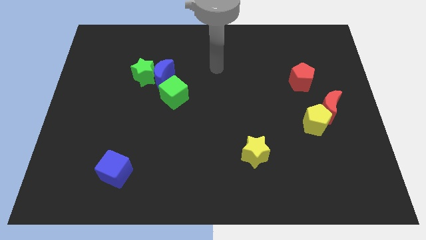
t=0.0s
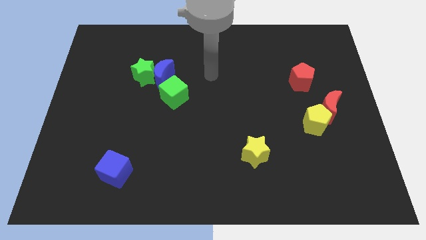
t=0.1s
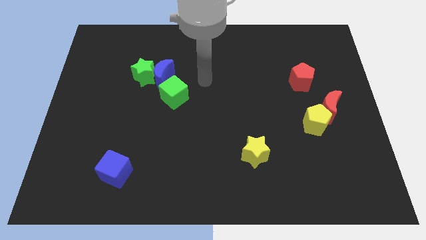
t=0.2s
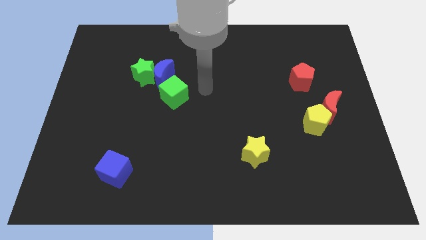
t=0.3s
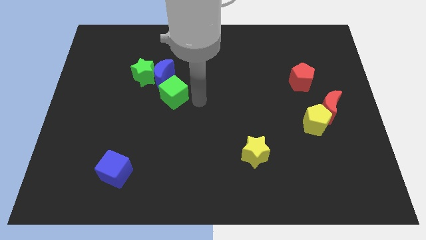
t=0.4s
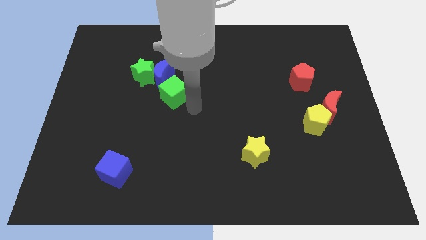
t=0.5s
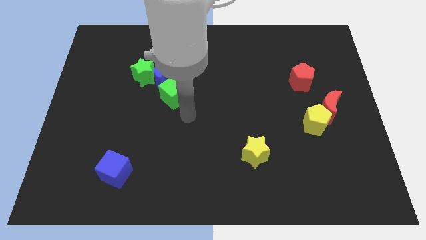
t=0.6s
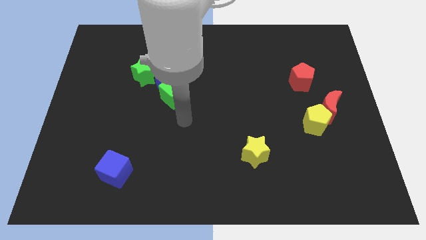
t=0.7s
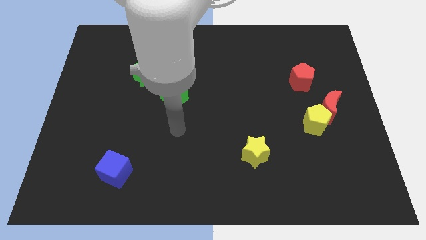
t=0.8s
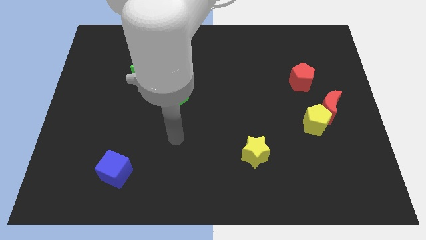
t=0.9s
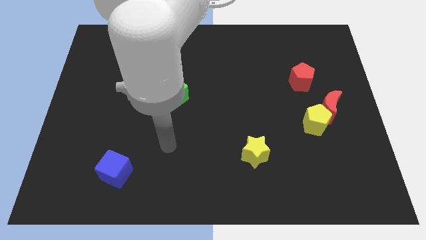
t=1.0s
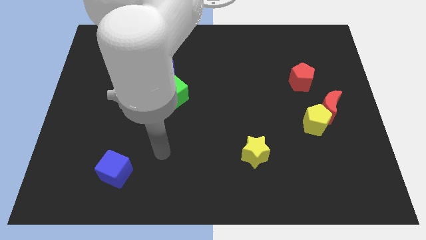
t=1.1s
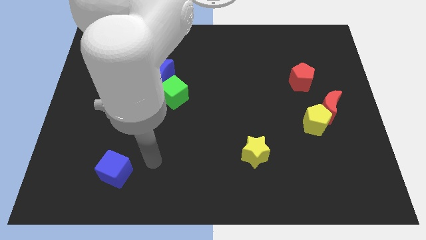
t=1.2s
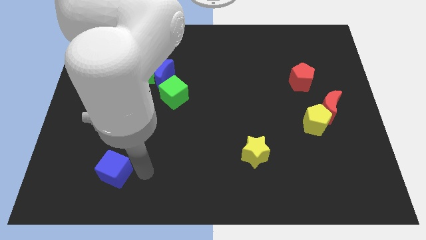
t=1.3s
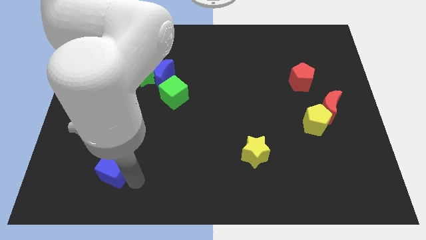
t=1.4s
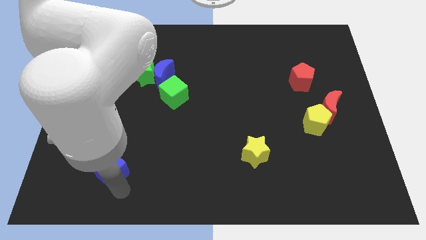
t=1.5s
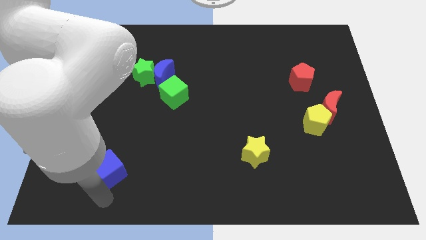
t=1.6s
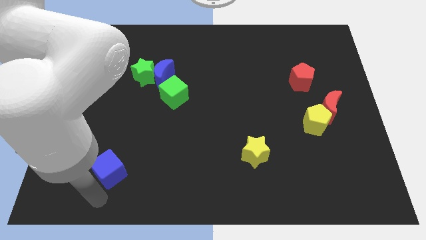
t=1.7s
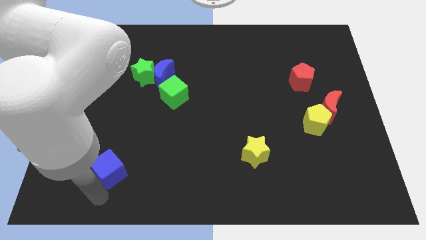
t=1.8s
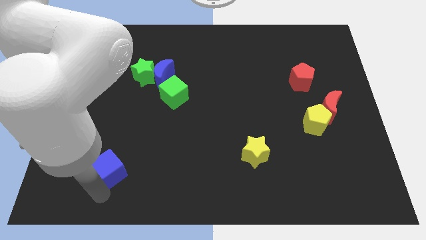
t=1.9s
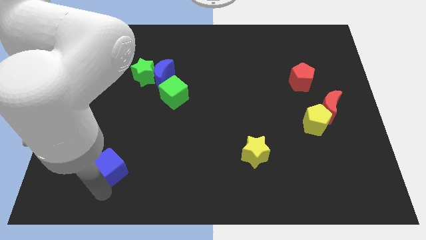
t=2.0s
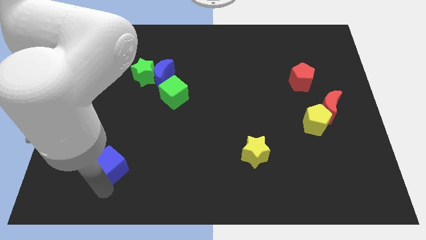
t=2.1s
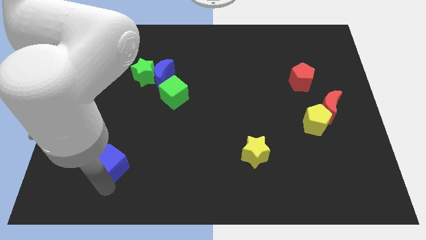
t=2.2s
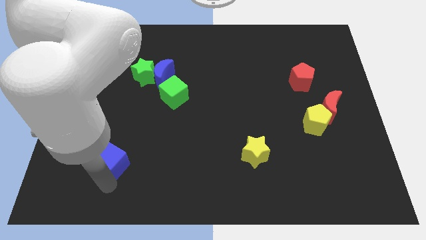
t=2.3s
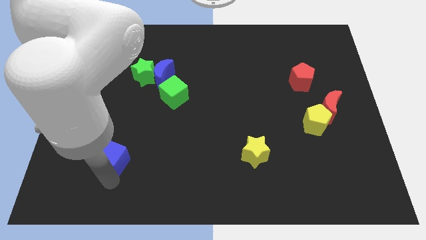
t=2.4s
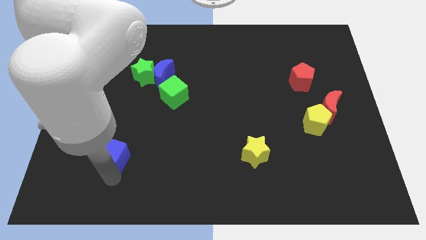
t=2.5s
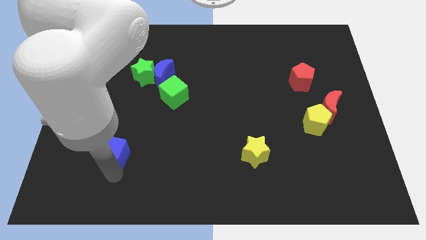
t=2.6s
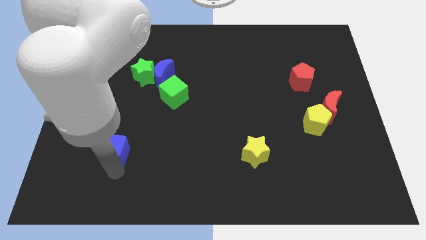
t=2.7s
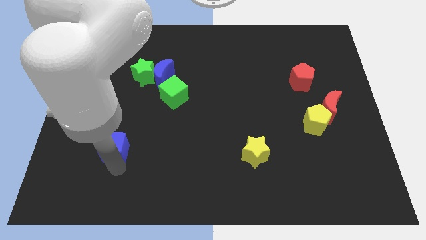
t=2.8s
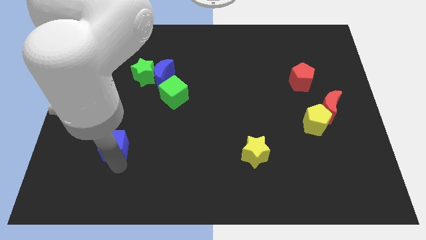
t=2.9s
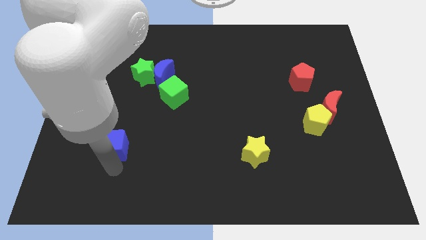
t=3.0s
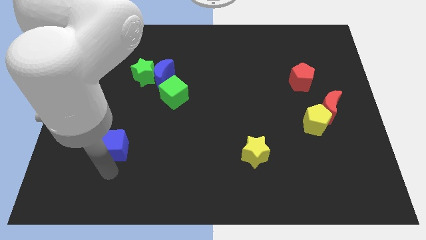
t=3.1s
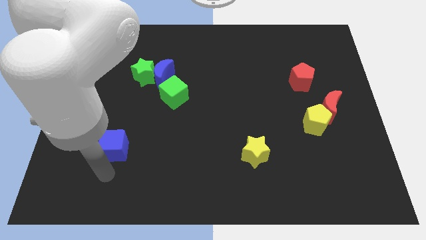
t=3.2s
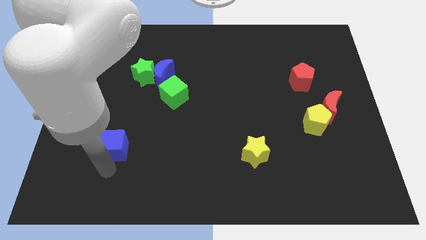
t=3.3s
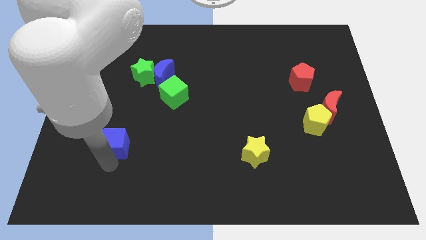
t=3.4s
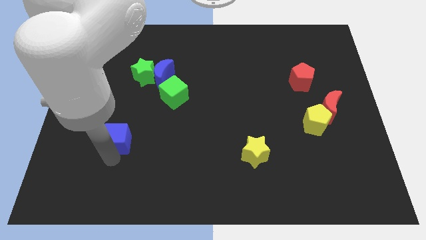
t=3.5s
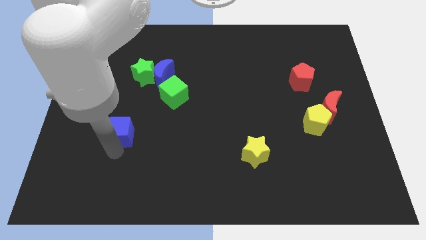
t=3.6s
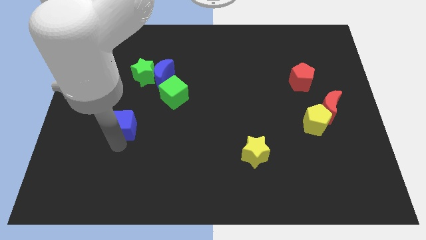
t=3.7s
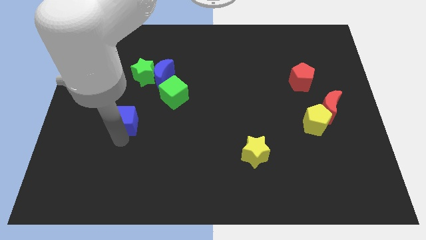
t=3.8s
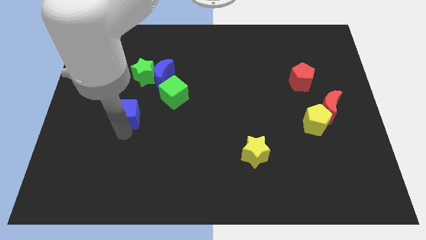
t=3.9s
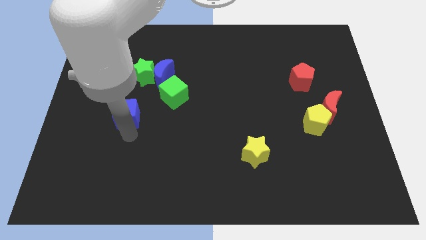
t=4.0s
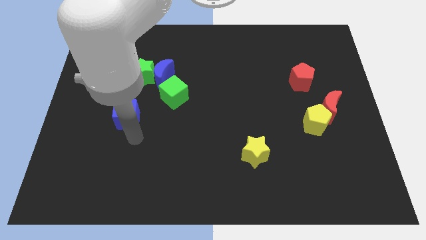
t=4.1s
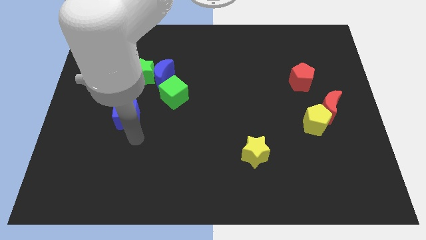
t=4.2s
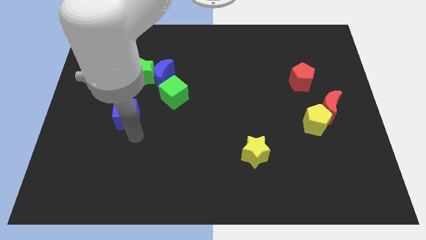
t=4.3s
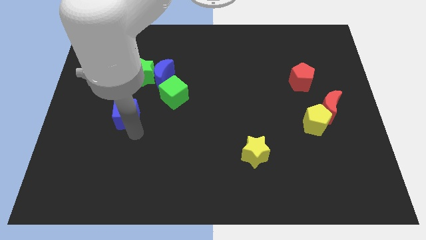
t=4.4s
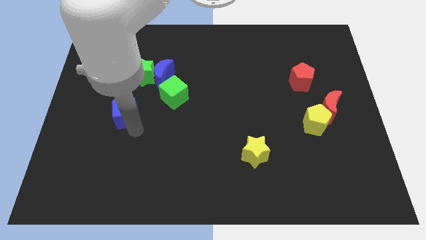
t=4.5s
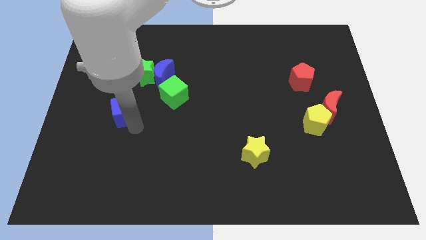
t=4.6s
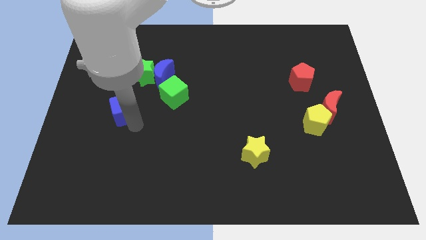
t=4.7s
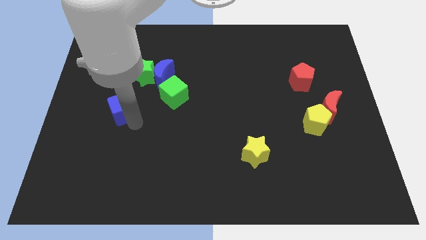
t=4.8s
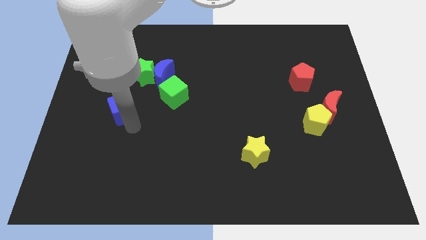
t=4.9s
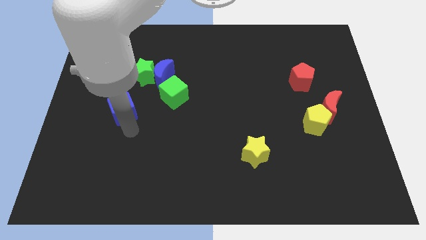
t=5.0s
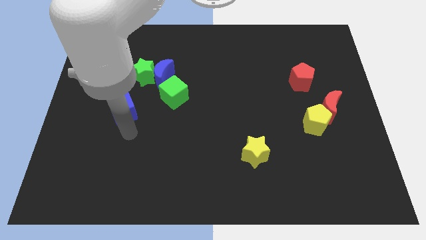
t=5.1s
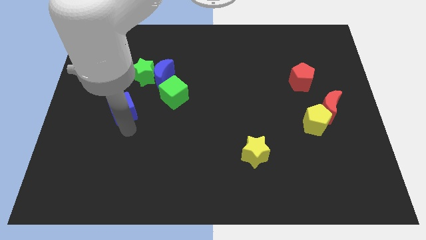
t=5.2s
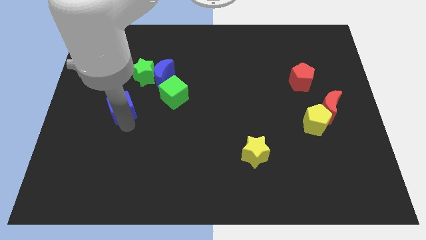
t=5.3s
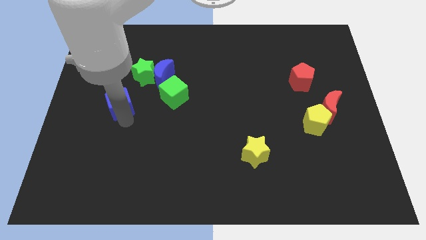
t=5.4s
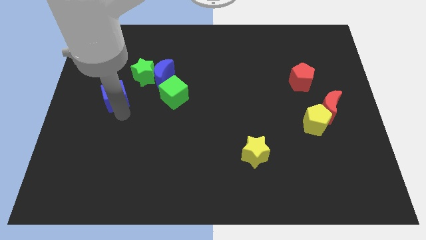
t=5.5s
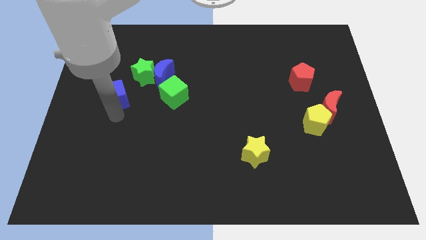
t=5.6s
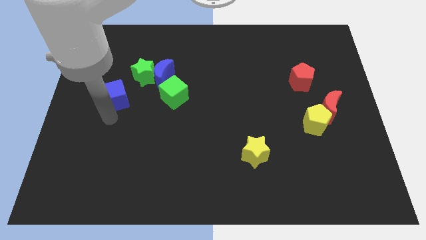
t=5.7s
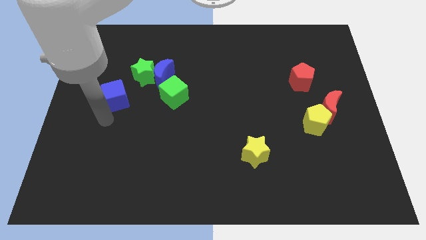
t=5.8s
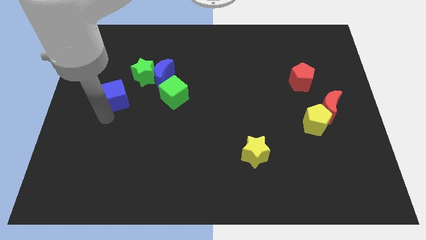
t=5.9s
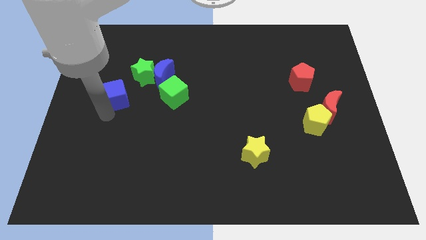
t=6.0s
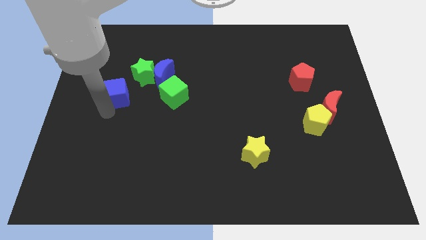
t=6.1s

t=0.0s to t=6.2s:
slide the blue cube upwards

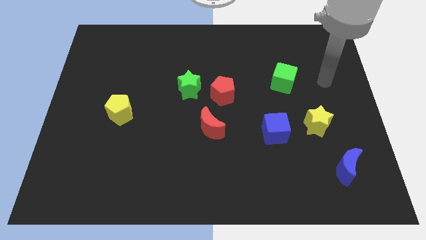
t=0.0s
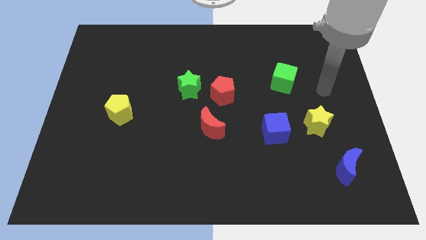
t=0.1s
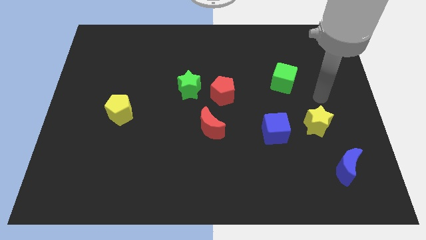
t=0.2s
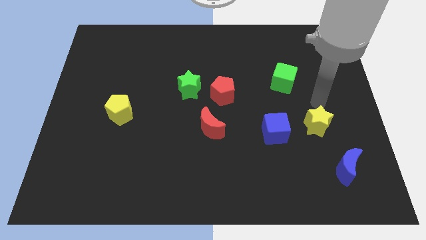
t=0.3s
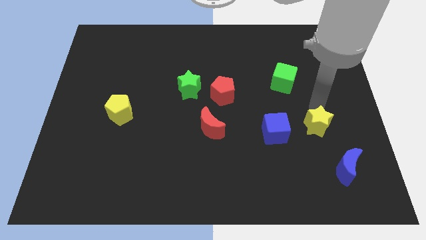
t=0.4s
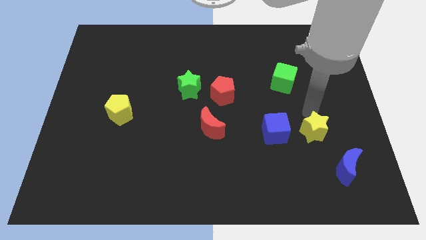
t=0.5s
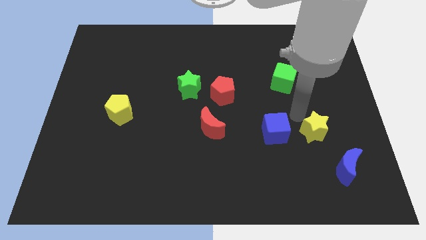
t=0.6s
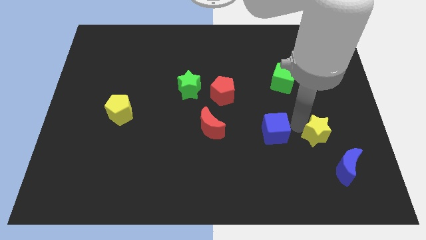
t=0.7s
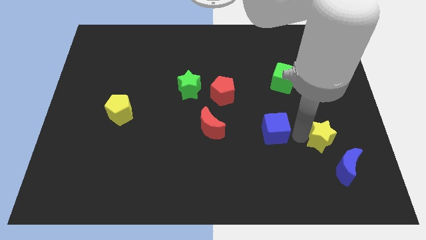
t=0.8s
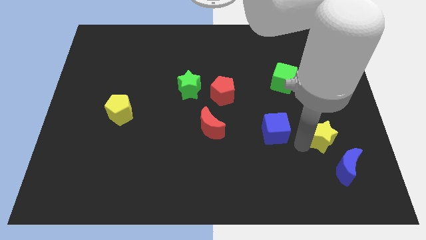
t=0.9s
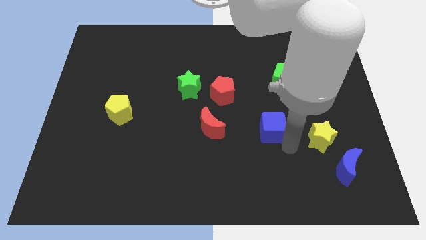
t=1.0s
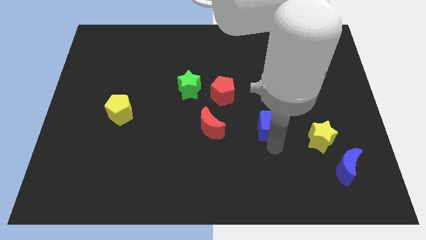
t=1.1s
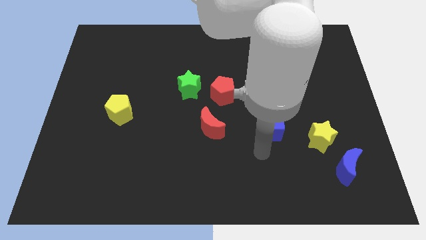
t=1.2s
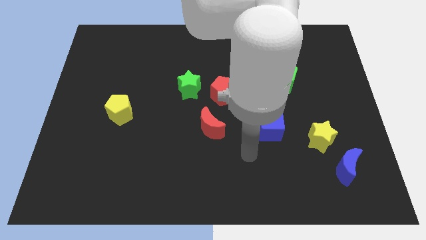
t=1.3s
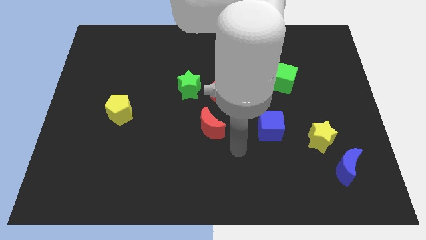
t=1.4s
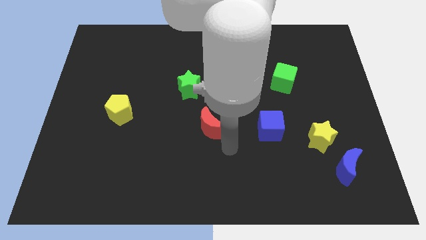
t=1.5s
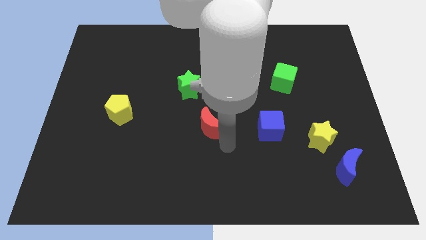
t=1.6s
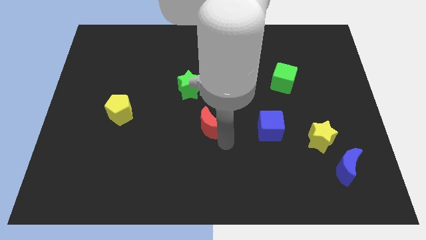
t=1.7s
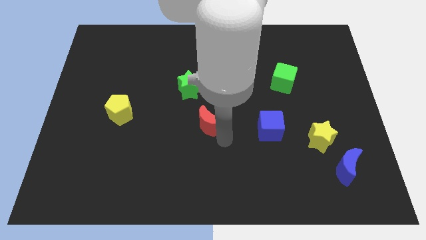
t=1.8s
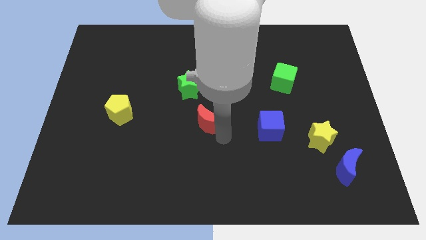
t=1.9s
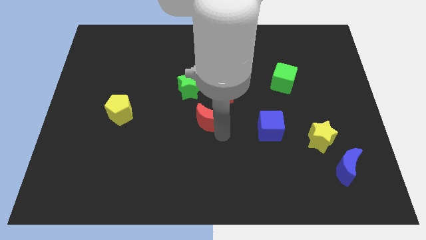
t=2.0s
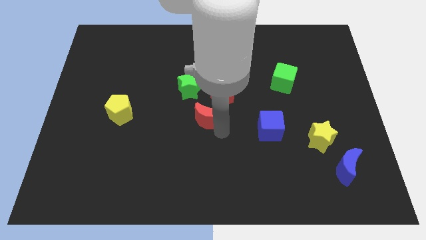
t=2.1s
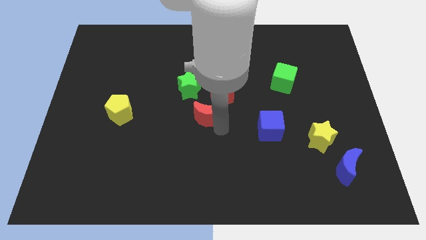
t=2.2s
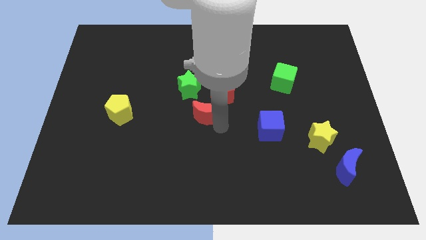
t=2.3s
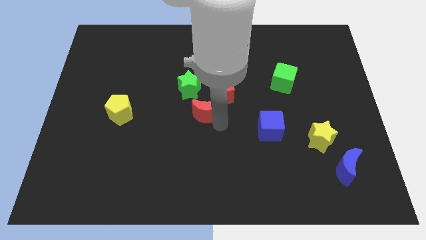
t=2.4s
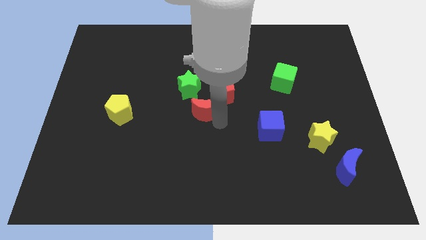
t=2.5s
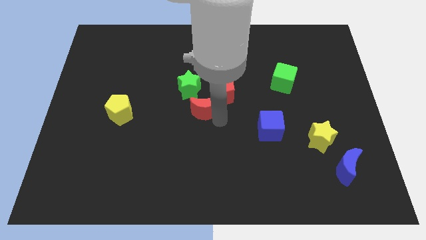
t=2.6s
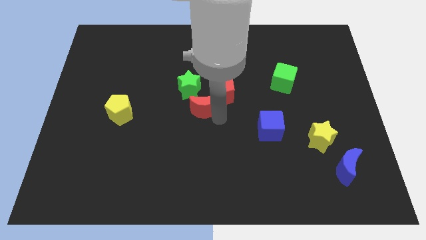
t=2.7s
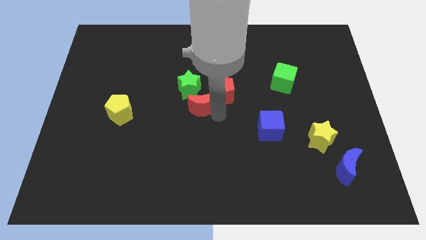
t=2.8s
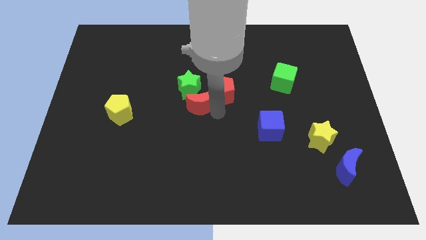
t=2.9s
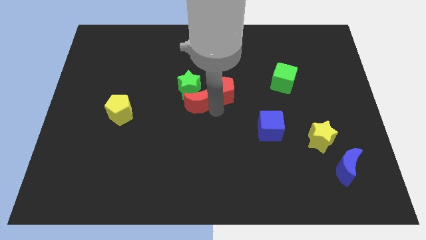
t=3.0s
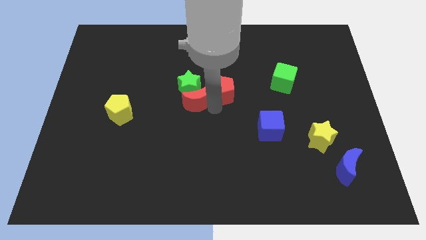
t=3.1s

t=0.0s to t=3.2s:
move the red moon up and left diagonally a bit
